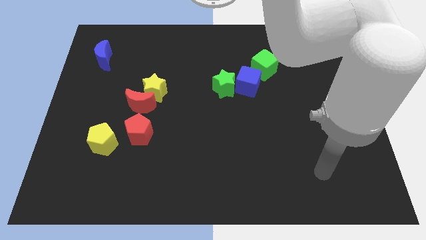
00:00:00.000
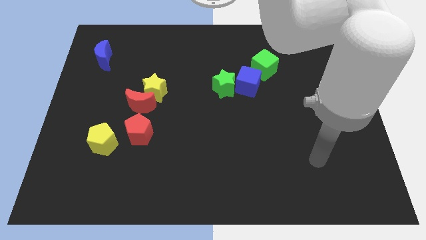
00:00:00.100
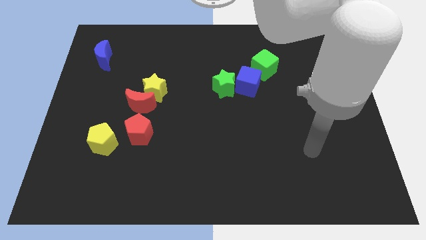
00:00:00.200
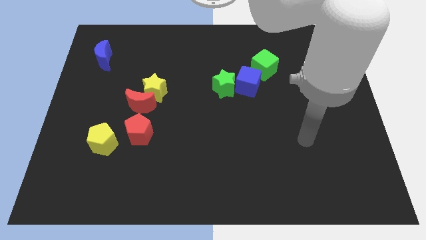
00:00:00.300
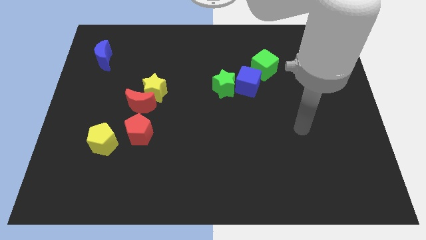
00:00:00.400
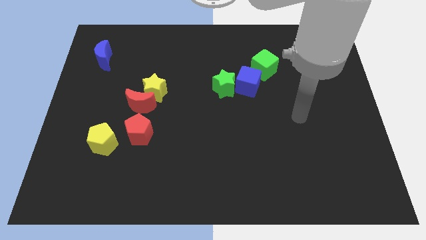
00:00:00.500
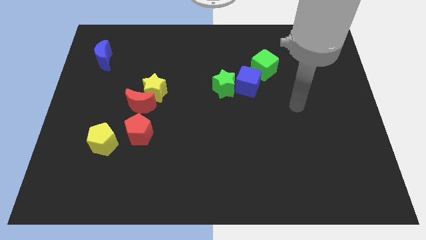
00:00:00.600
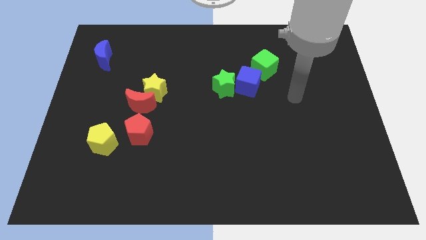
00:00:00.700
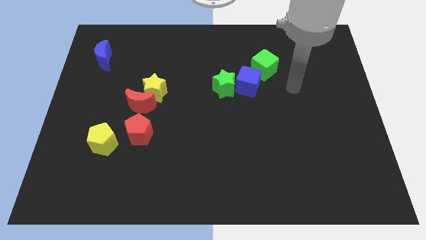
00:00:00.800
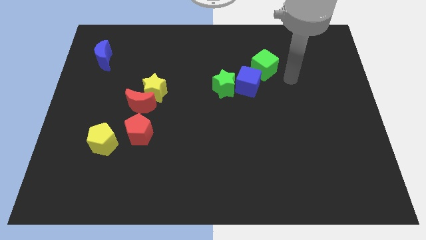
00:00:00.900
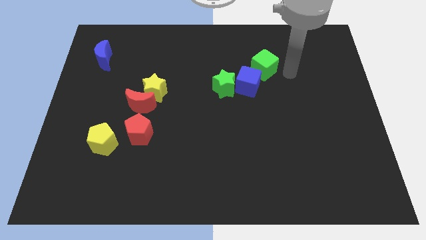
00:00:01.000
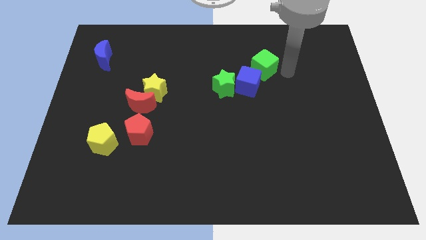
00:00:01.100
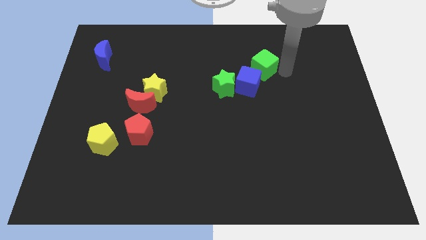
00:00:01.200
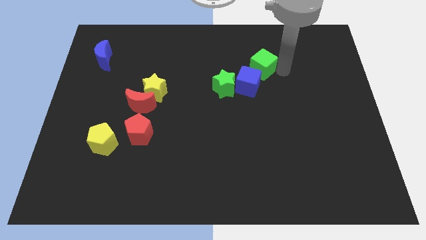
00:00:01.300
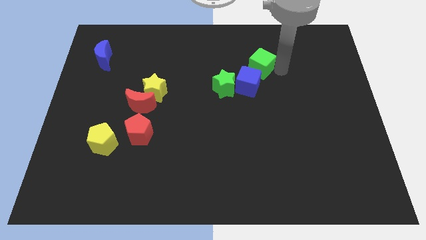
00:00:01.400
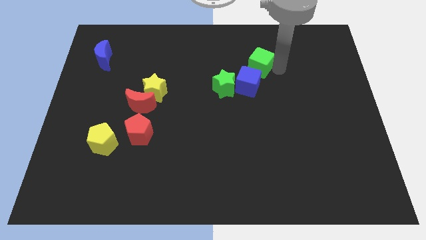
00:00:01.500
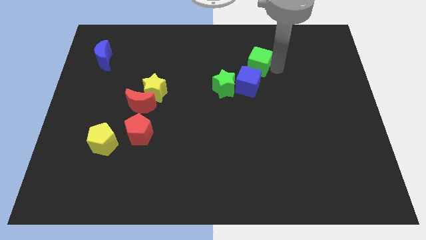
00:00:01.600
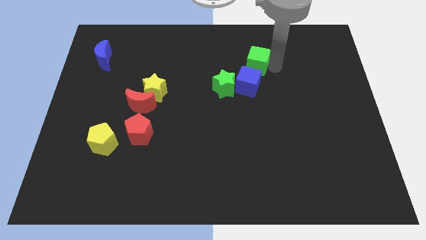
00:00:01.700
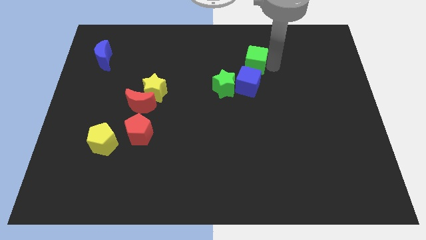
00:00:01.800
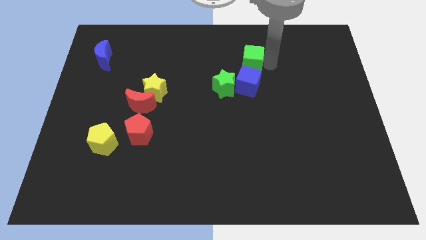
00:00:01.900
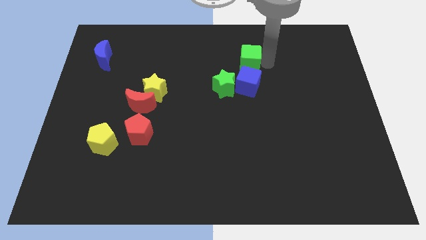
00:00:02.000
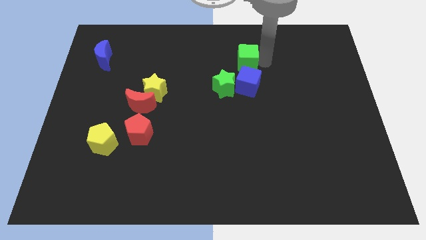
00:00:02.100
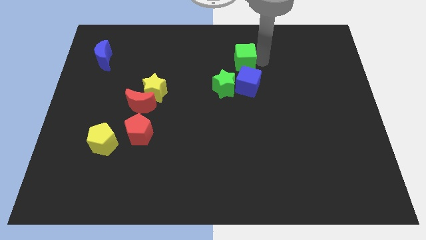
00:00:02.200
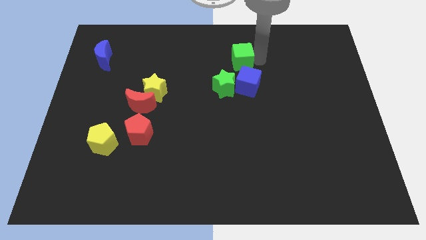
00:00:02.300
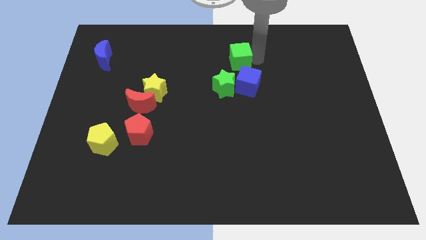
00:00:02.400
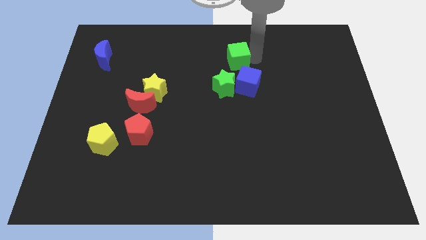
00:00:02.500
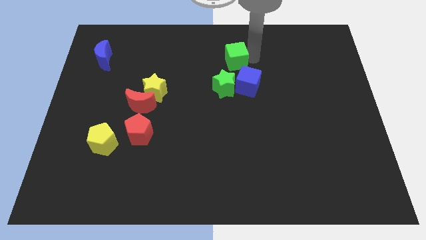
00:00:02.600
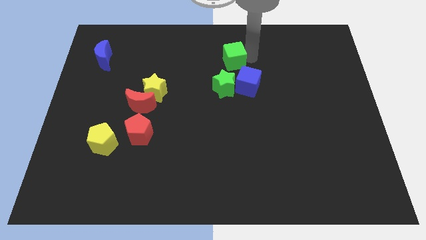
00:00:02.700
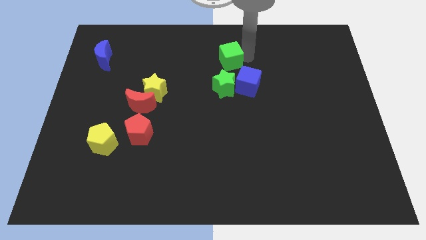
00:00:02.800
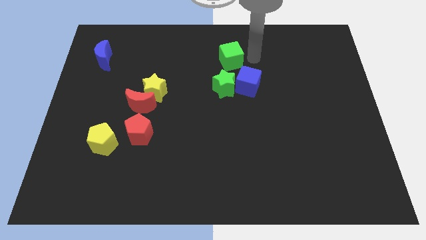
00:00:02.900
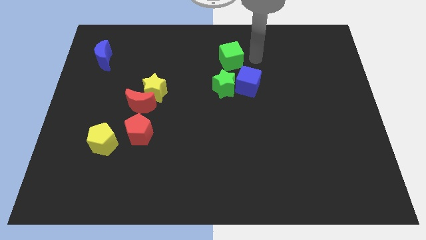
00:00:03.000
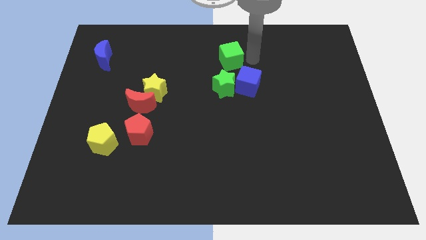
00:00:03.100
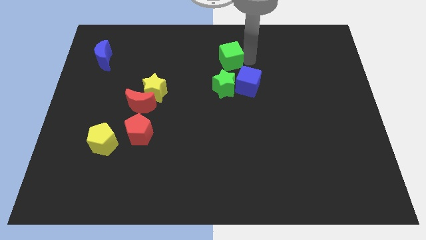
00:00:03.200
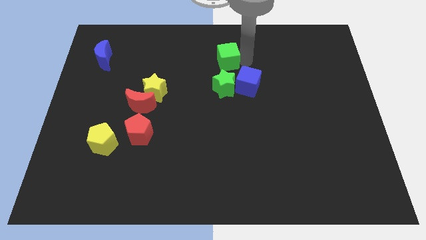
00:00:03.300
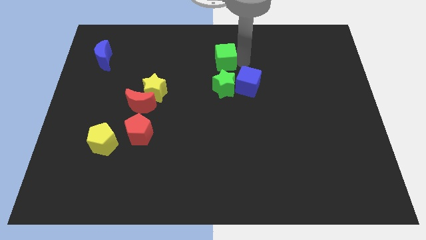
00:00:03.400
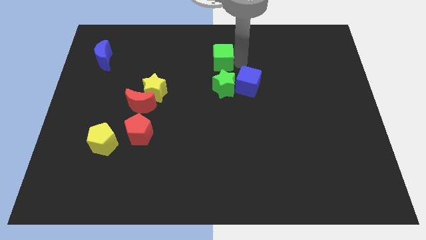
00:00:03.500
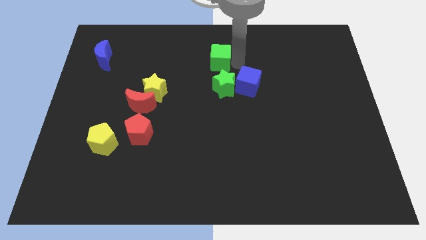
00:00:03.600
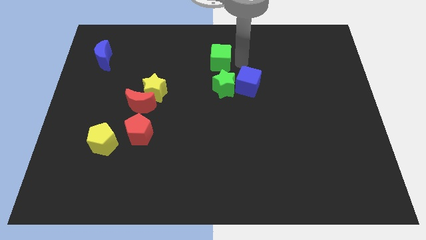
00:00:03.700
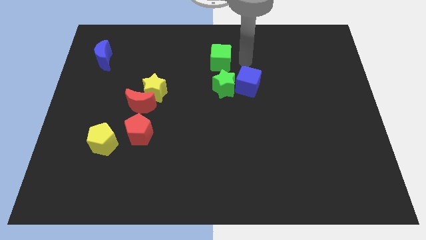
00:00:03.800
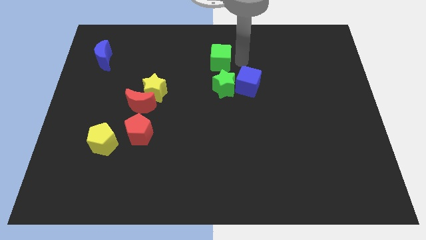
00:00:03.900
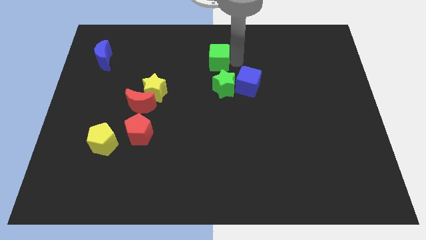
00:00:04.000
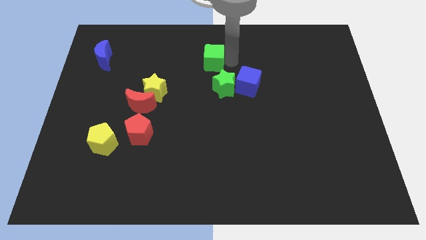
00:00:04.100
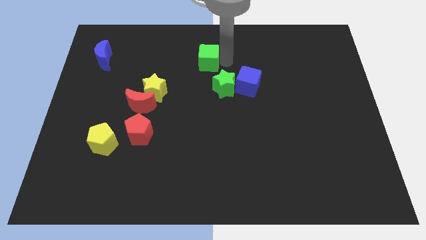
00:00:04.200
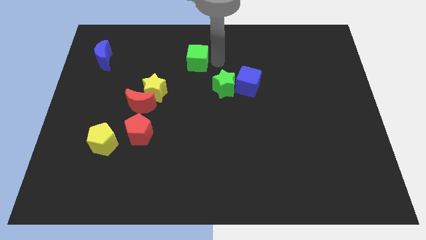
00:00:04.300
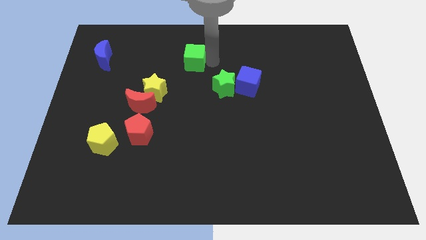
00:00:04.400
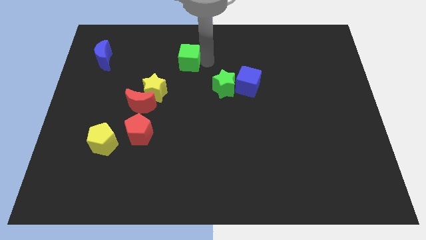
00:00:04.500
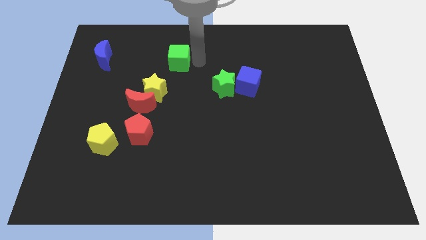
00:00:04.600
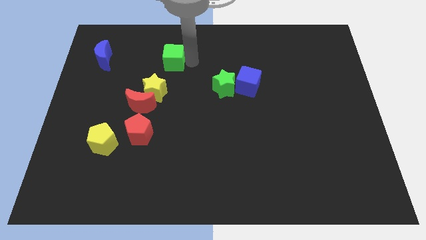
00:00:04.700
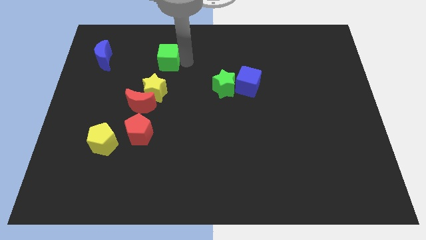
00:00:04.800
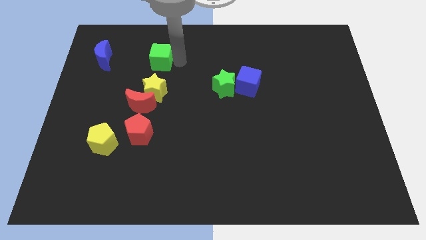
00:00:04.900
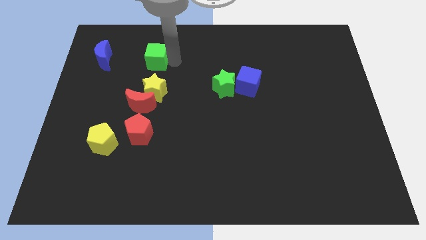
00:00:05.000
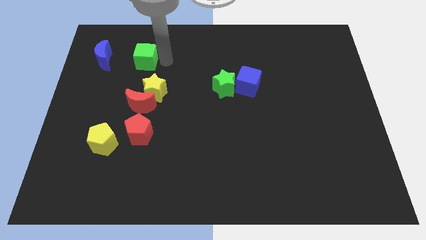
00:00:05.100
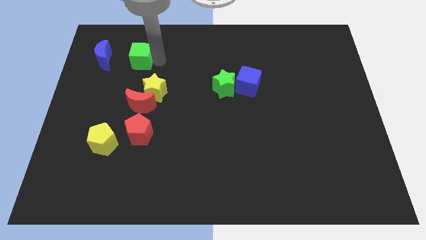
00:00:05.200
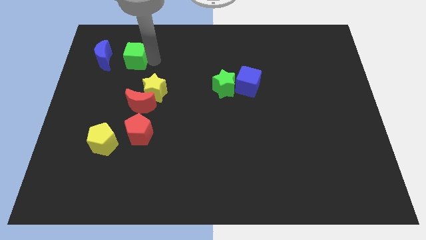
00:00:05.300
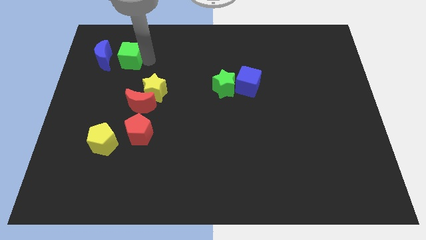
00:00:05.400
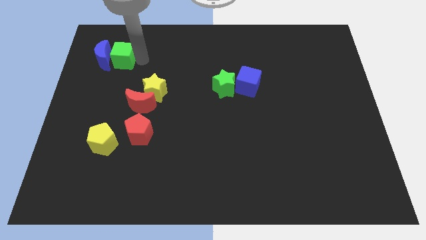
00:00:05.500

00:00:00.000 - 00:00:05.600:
slide the green cube close to the blue moon

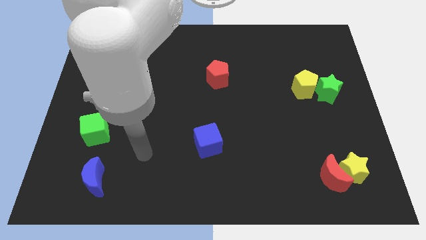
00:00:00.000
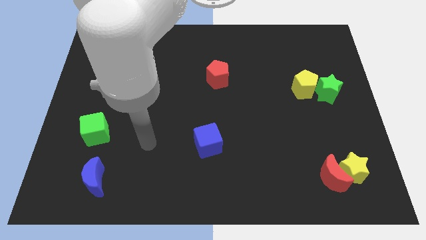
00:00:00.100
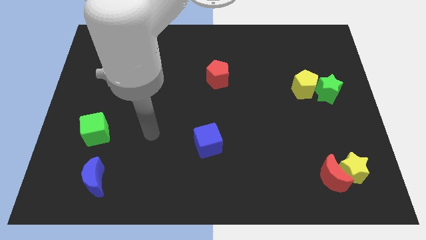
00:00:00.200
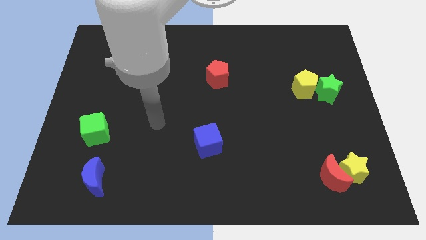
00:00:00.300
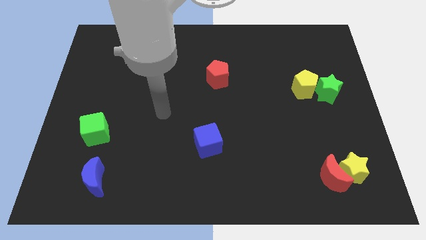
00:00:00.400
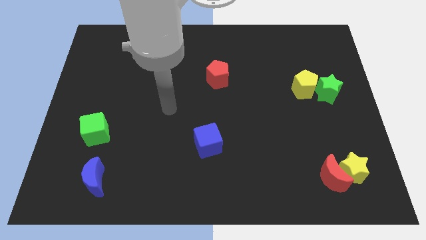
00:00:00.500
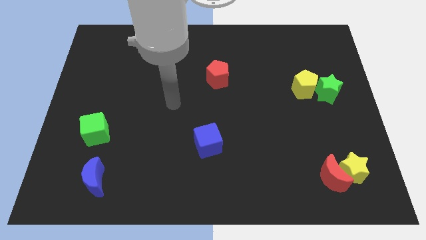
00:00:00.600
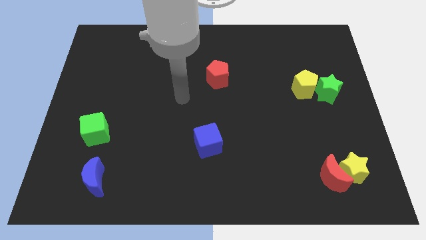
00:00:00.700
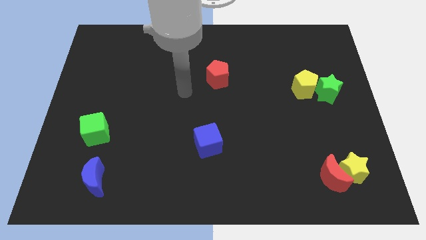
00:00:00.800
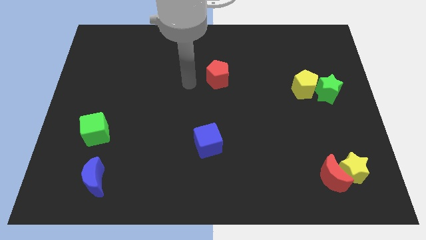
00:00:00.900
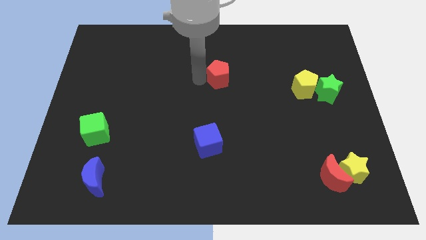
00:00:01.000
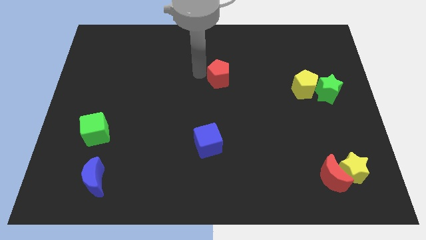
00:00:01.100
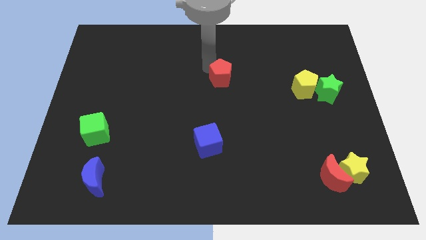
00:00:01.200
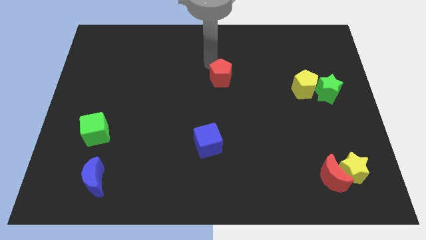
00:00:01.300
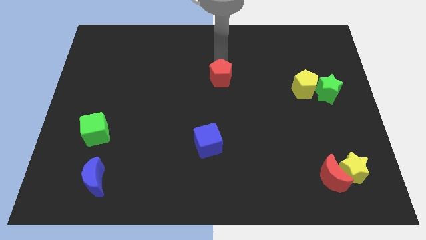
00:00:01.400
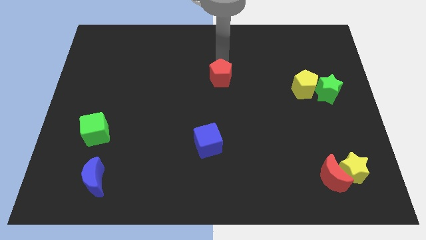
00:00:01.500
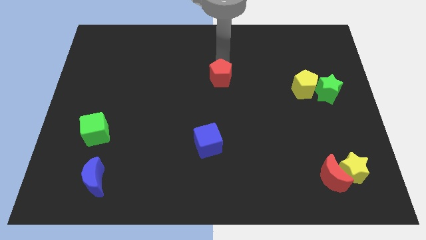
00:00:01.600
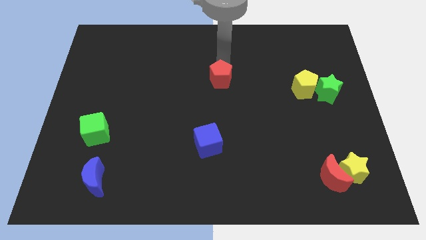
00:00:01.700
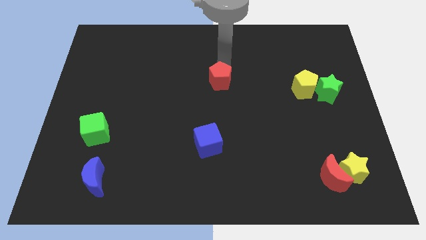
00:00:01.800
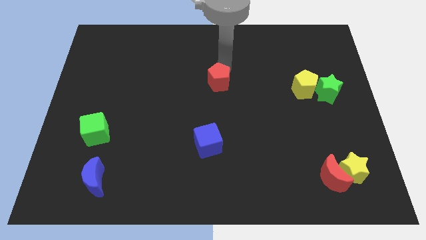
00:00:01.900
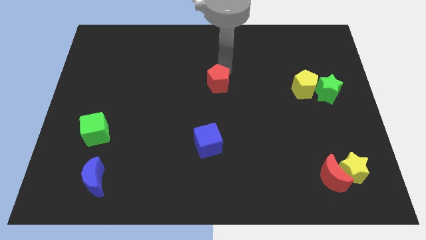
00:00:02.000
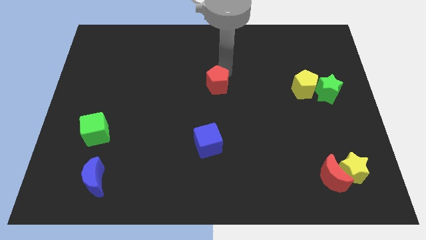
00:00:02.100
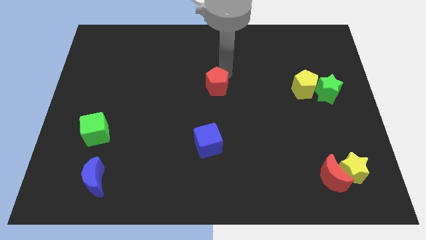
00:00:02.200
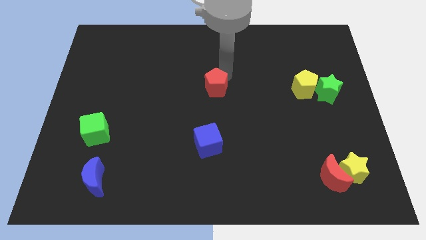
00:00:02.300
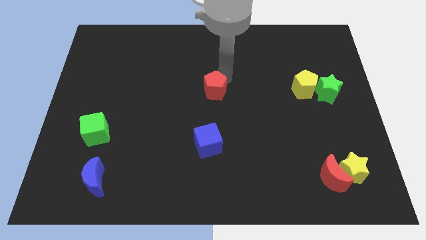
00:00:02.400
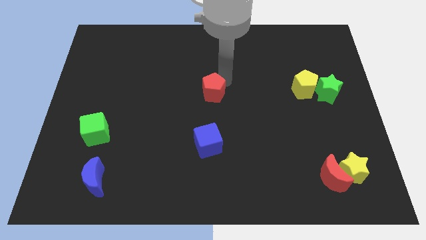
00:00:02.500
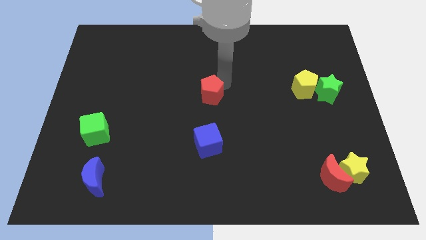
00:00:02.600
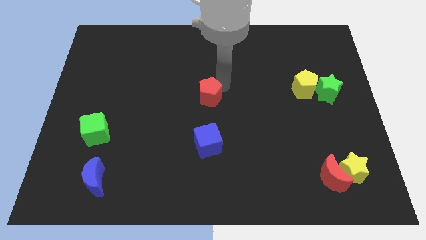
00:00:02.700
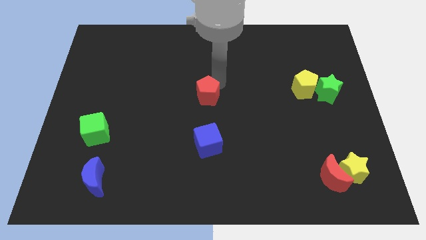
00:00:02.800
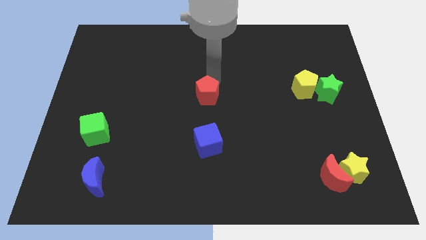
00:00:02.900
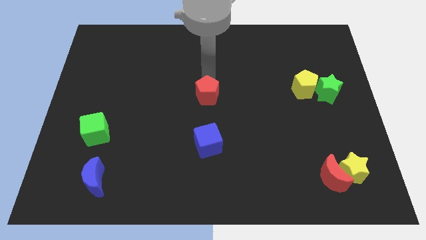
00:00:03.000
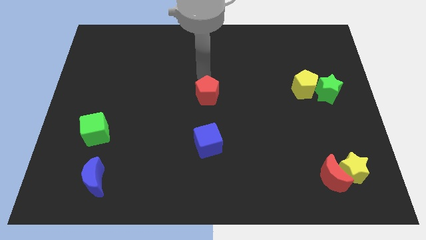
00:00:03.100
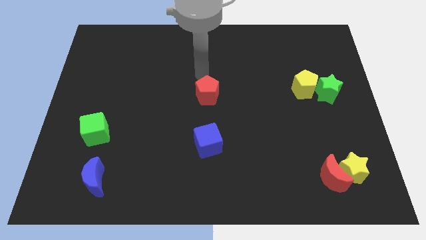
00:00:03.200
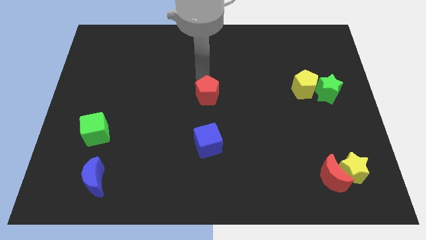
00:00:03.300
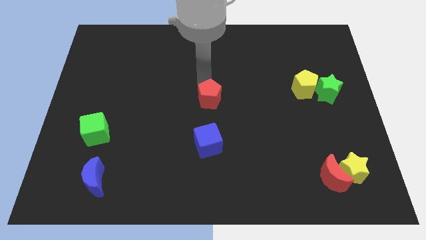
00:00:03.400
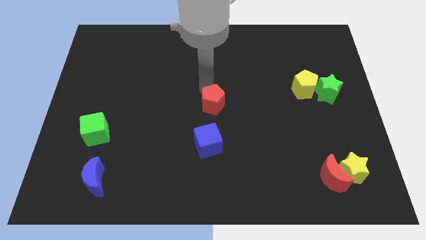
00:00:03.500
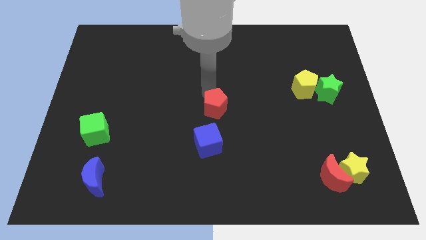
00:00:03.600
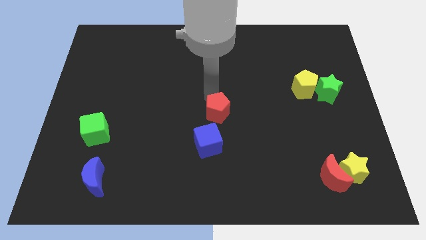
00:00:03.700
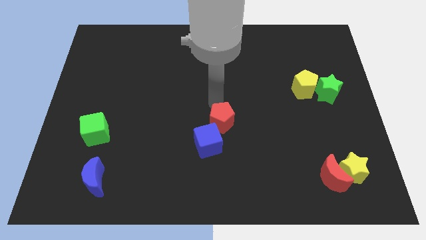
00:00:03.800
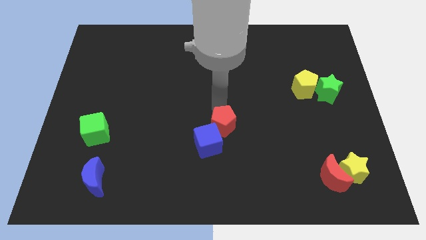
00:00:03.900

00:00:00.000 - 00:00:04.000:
move the red pentagon towards the blue cube
